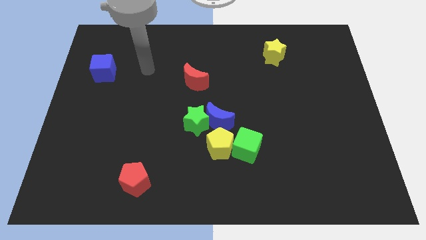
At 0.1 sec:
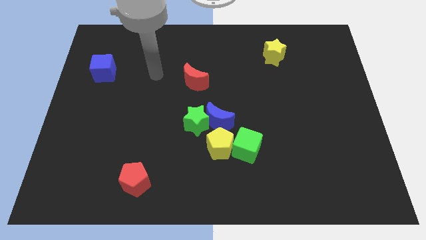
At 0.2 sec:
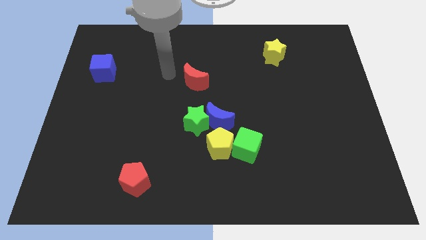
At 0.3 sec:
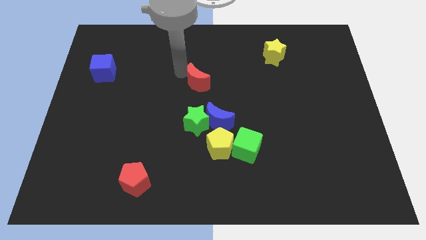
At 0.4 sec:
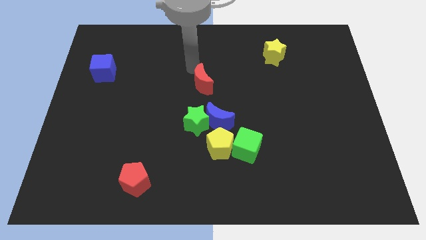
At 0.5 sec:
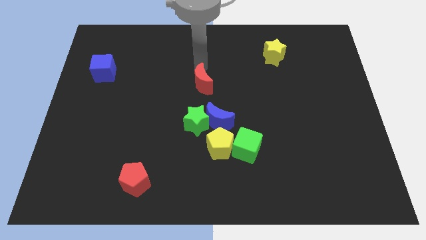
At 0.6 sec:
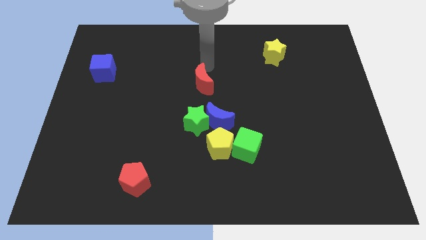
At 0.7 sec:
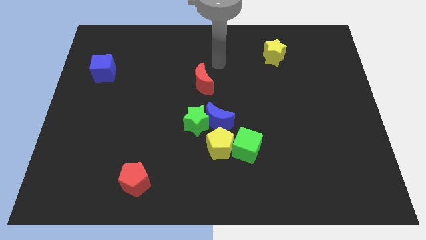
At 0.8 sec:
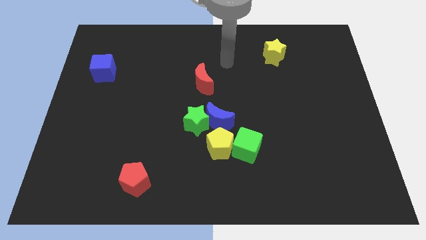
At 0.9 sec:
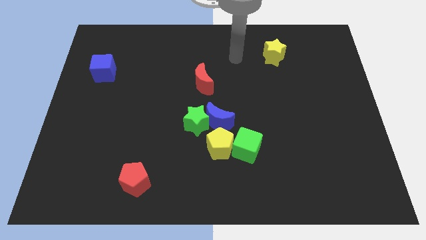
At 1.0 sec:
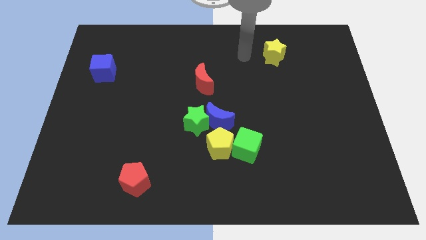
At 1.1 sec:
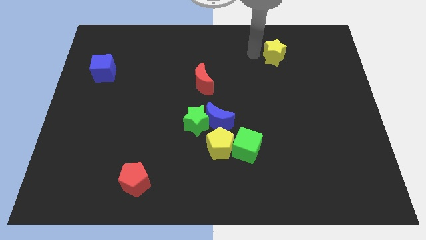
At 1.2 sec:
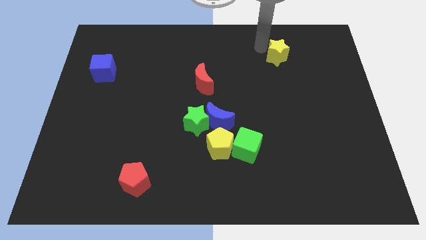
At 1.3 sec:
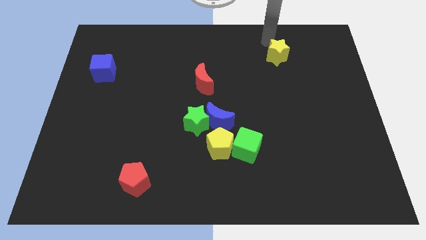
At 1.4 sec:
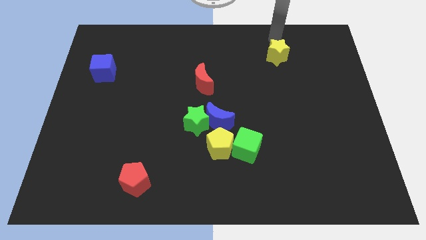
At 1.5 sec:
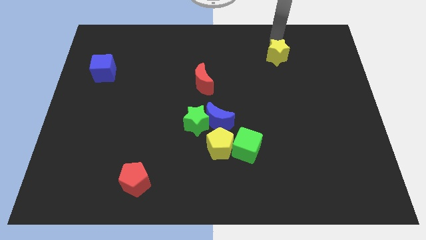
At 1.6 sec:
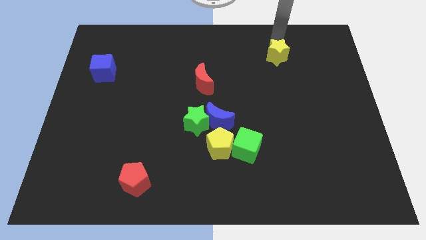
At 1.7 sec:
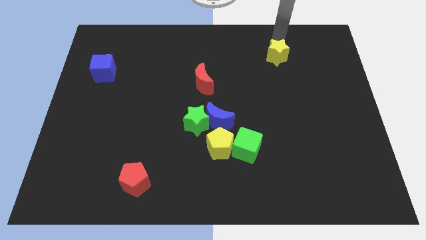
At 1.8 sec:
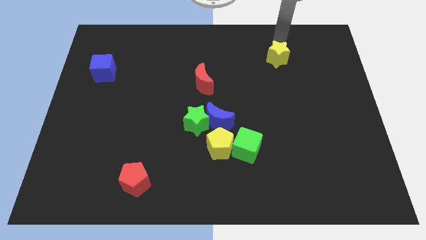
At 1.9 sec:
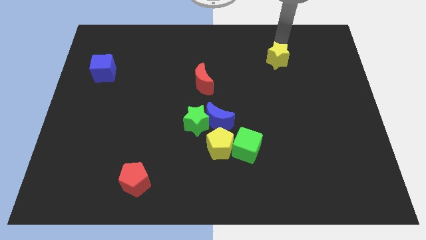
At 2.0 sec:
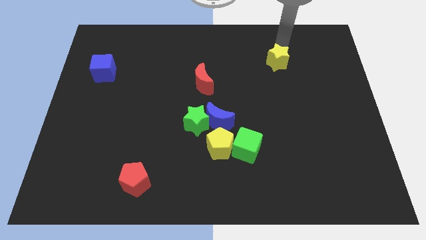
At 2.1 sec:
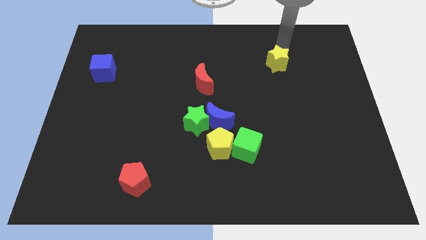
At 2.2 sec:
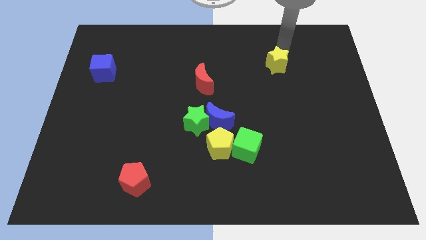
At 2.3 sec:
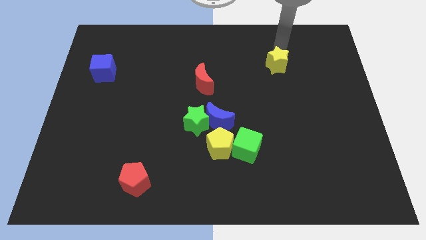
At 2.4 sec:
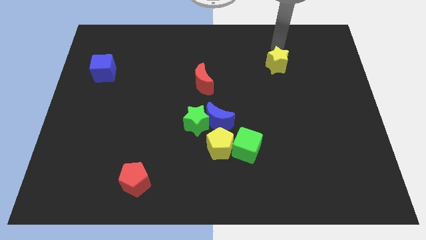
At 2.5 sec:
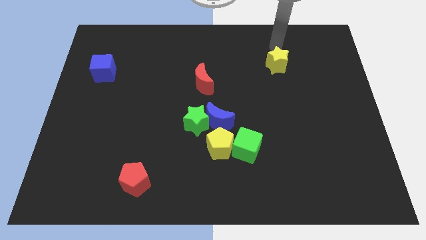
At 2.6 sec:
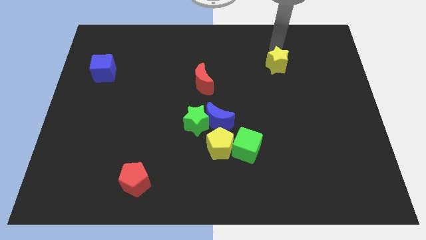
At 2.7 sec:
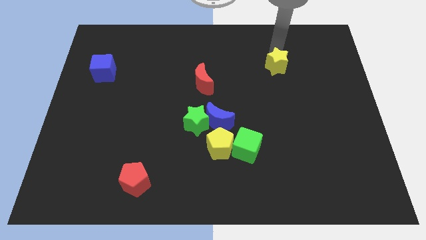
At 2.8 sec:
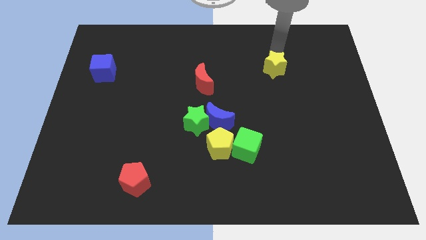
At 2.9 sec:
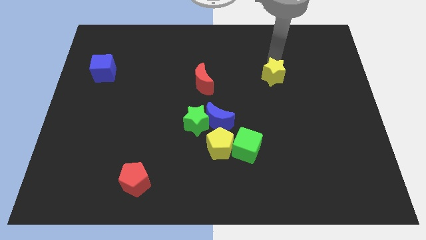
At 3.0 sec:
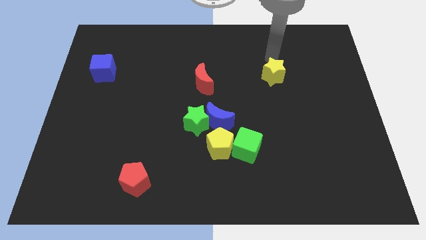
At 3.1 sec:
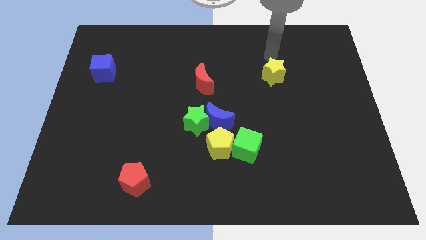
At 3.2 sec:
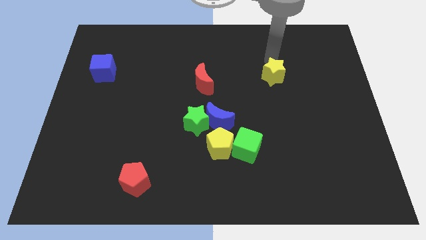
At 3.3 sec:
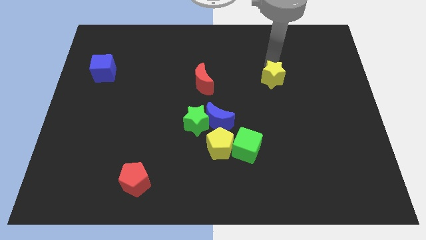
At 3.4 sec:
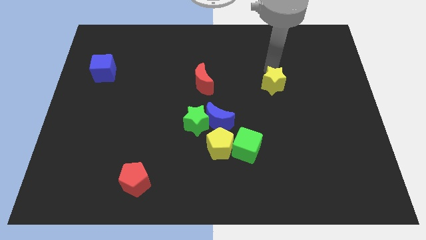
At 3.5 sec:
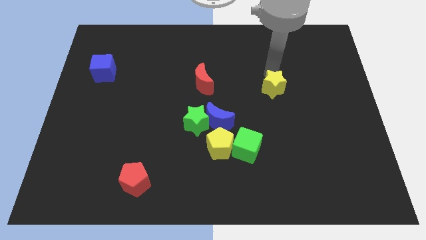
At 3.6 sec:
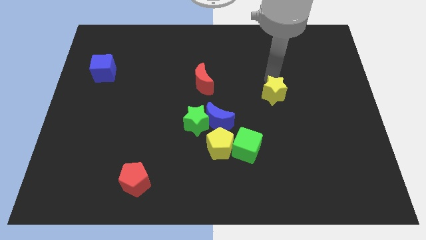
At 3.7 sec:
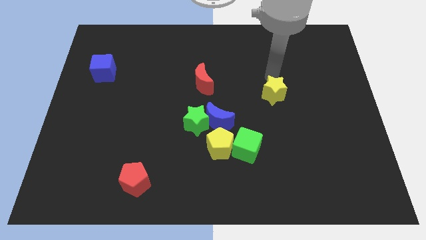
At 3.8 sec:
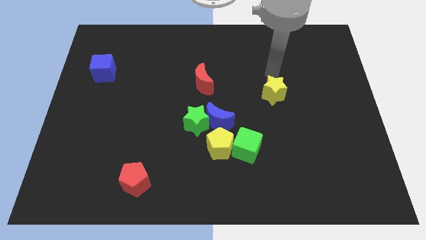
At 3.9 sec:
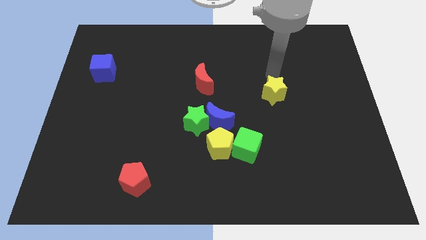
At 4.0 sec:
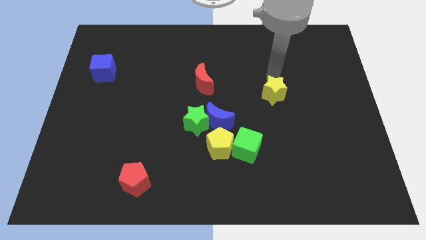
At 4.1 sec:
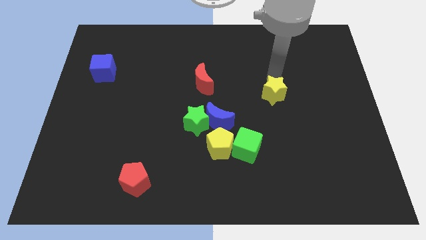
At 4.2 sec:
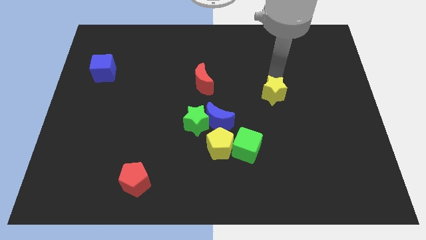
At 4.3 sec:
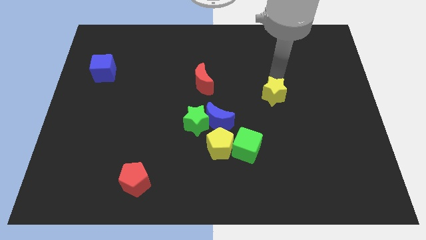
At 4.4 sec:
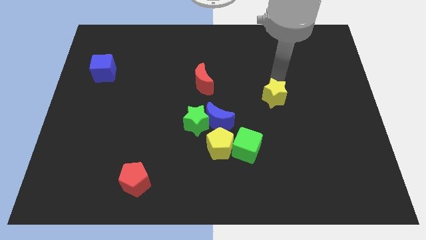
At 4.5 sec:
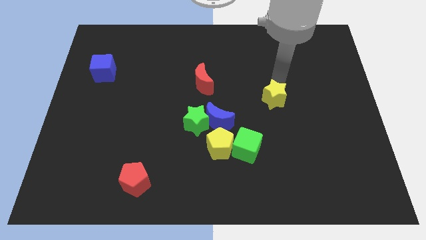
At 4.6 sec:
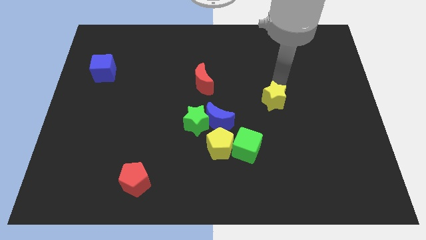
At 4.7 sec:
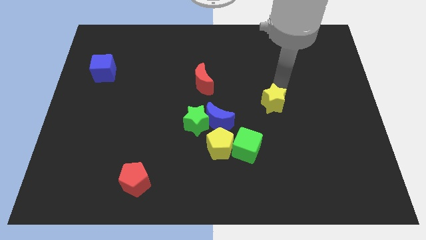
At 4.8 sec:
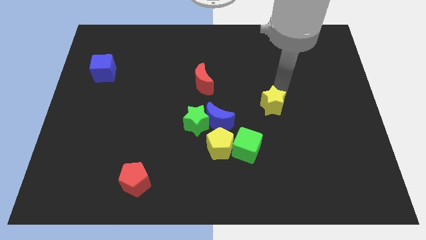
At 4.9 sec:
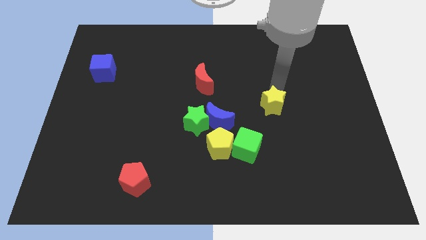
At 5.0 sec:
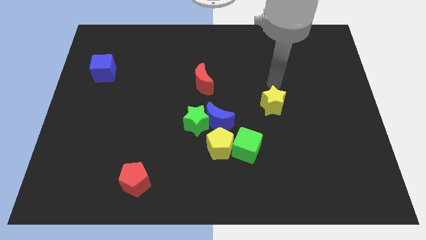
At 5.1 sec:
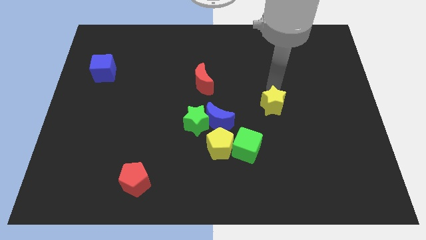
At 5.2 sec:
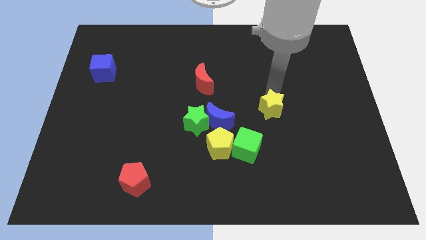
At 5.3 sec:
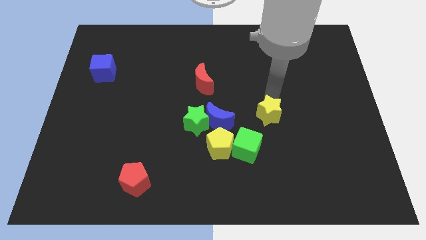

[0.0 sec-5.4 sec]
push the yellow star to the top right side of the green cube

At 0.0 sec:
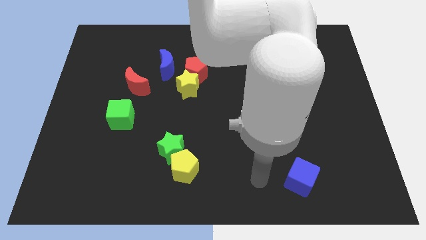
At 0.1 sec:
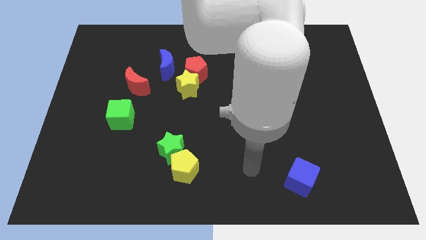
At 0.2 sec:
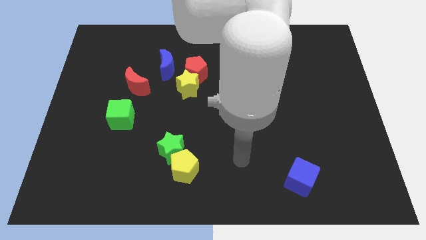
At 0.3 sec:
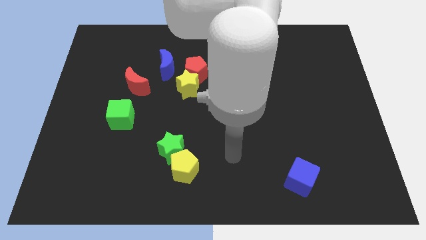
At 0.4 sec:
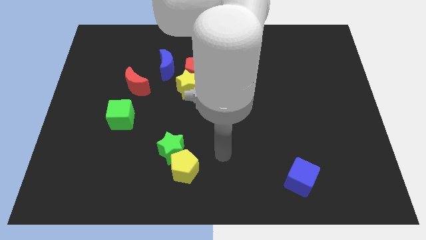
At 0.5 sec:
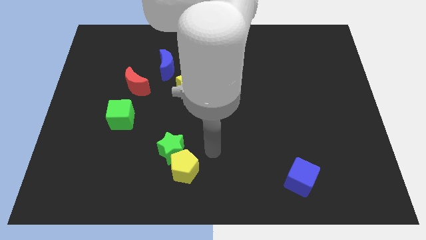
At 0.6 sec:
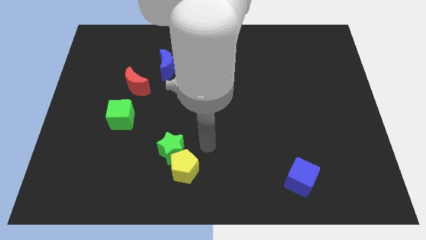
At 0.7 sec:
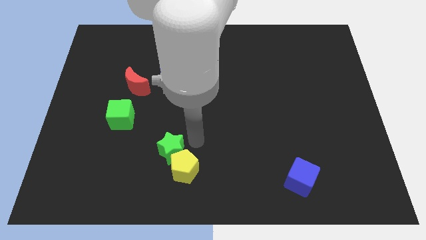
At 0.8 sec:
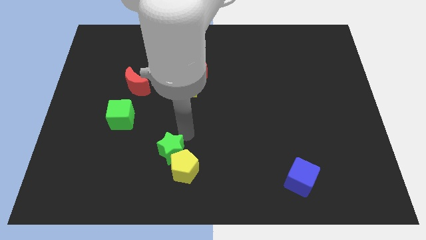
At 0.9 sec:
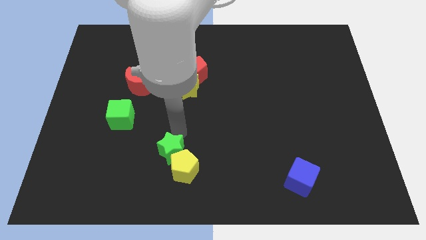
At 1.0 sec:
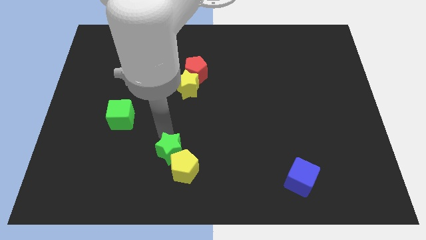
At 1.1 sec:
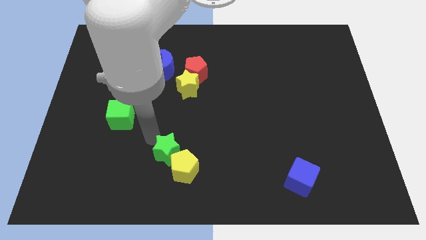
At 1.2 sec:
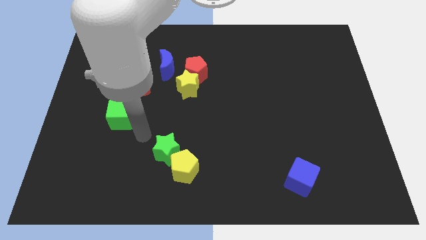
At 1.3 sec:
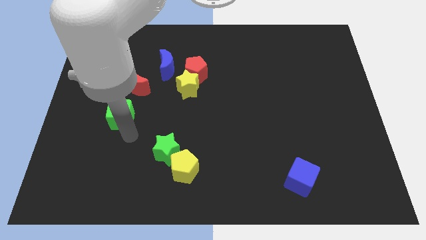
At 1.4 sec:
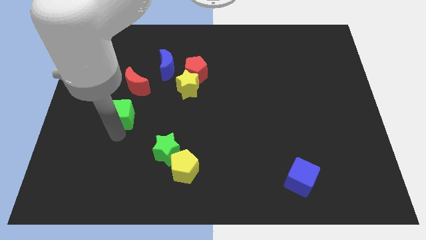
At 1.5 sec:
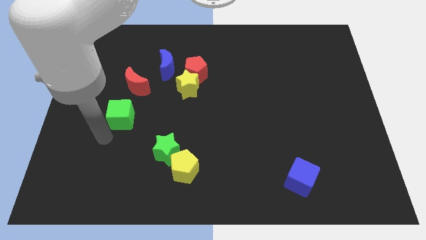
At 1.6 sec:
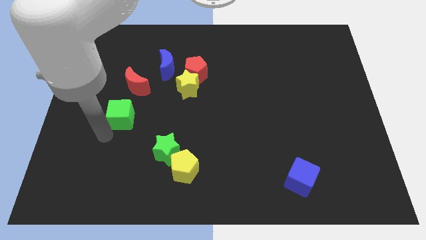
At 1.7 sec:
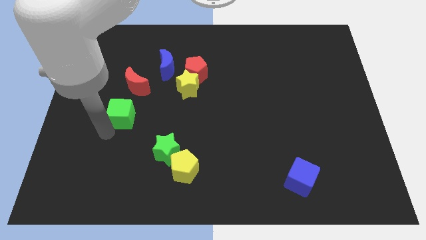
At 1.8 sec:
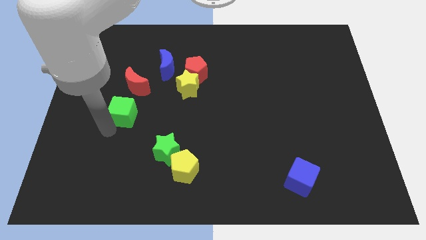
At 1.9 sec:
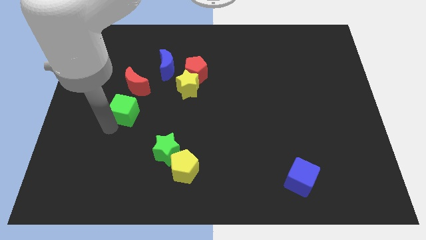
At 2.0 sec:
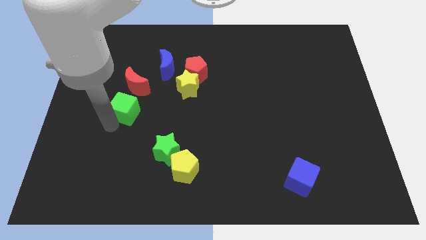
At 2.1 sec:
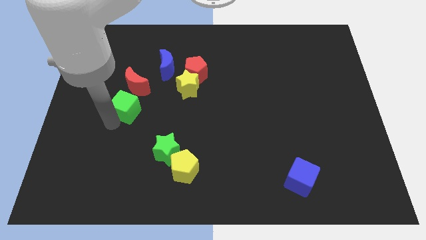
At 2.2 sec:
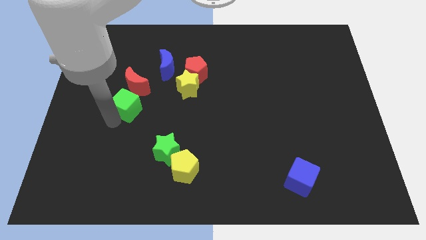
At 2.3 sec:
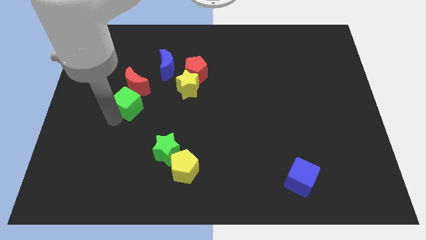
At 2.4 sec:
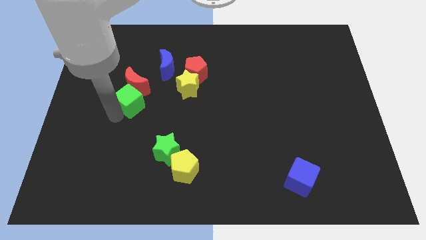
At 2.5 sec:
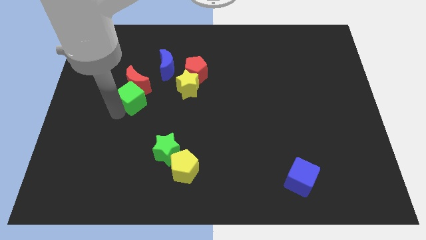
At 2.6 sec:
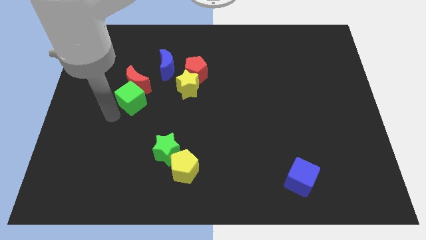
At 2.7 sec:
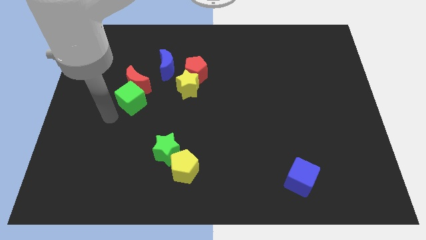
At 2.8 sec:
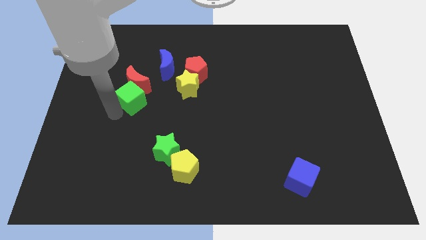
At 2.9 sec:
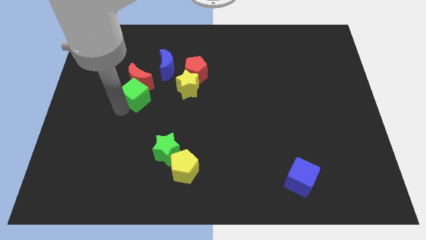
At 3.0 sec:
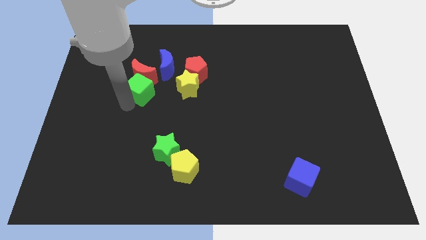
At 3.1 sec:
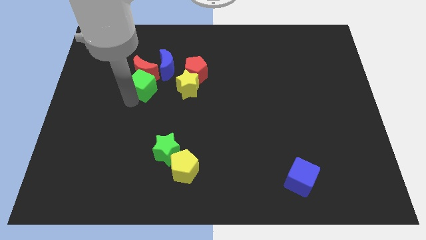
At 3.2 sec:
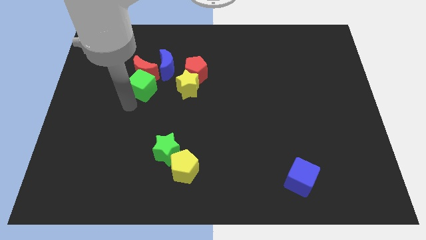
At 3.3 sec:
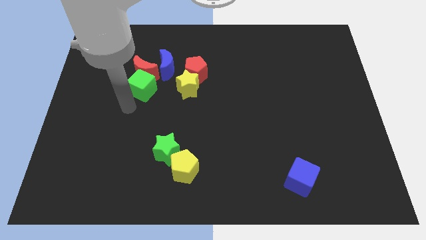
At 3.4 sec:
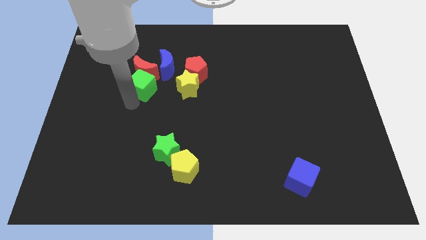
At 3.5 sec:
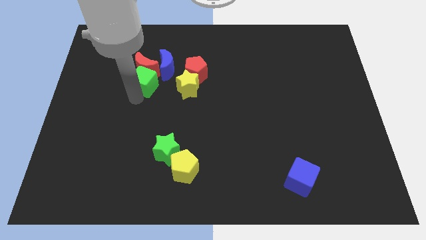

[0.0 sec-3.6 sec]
slide the green cube to the left of the red pentagon
